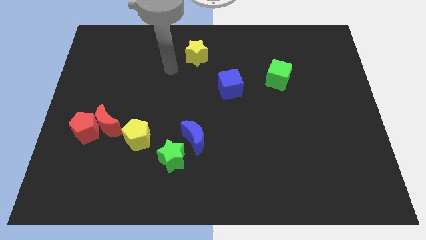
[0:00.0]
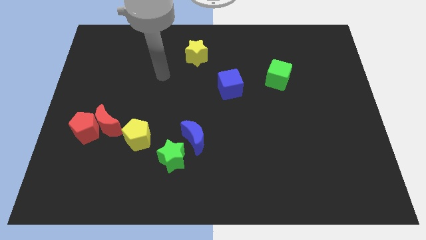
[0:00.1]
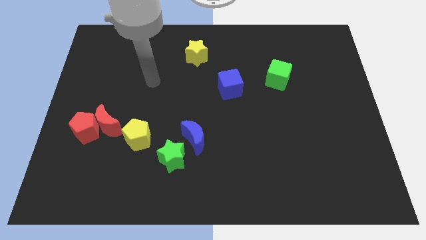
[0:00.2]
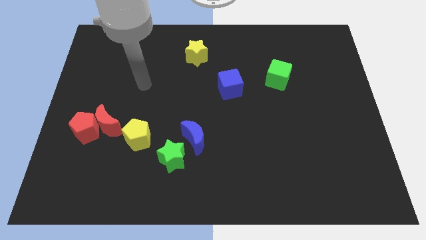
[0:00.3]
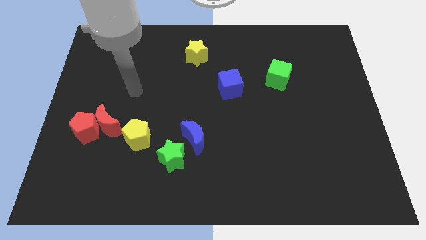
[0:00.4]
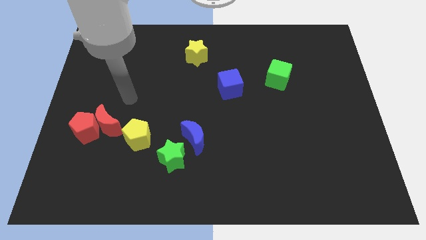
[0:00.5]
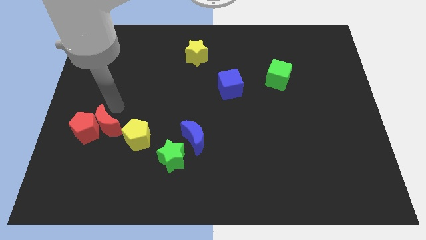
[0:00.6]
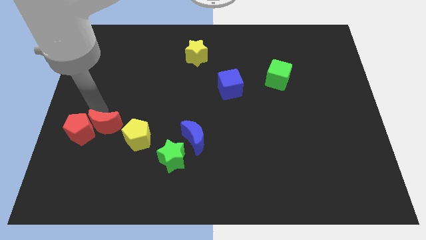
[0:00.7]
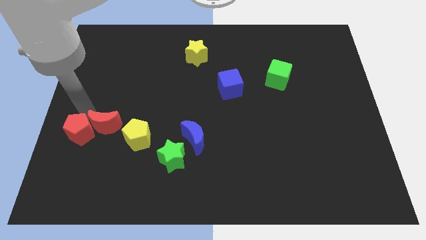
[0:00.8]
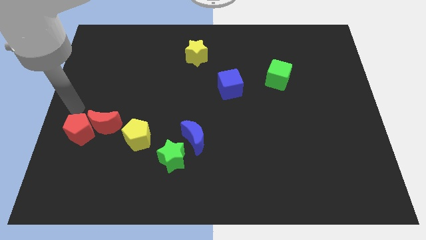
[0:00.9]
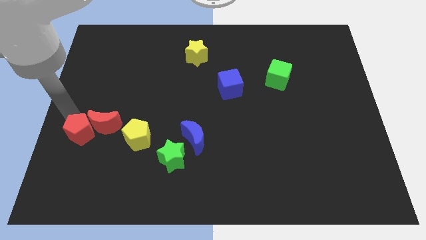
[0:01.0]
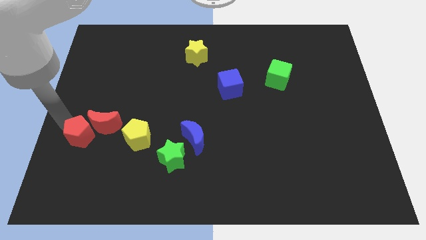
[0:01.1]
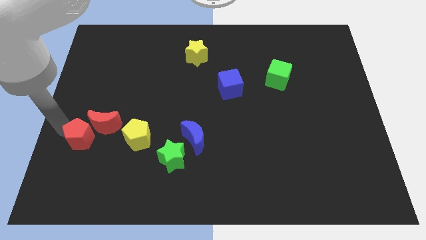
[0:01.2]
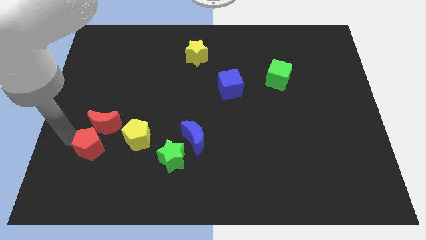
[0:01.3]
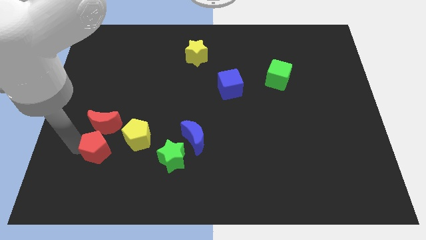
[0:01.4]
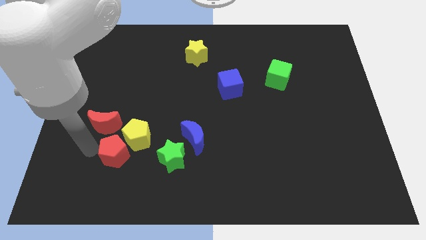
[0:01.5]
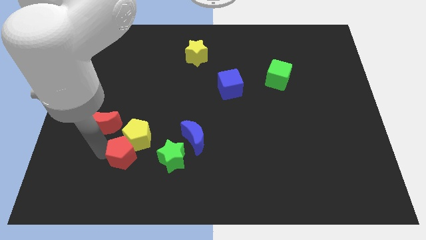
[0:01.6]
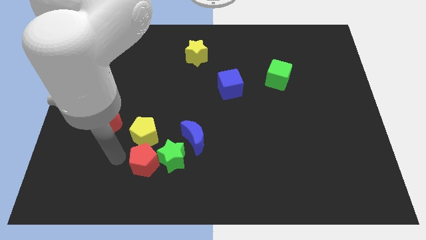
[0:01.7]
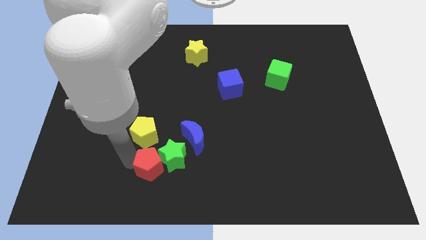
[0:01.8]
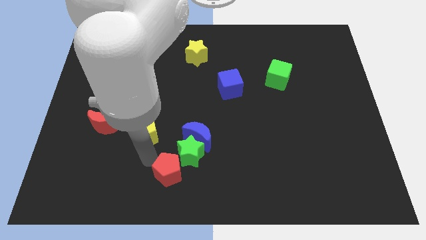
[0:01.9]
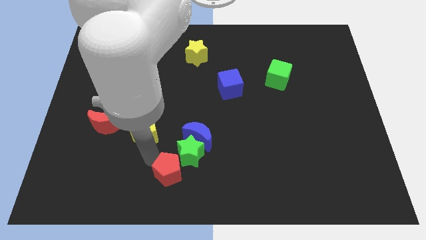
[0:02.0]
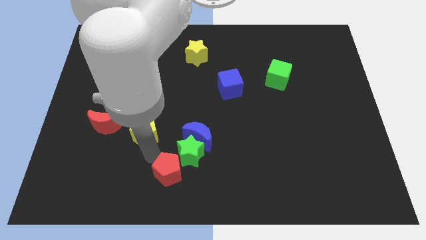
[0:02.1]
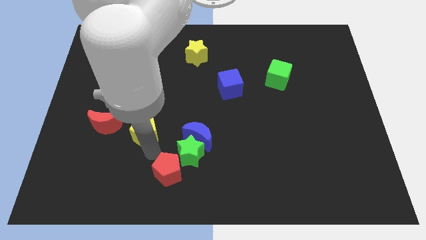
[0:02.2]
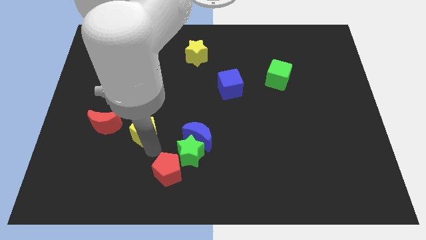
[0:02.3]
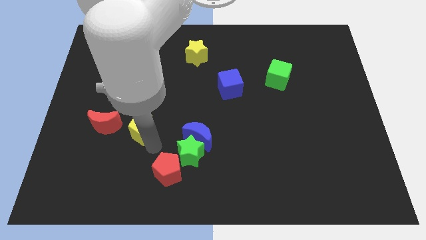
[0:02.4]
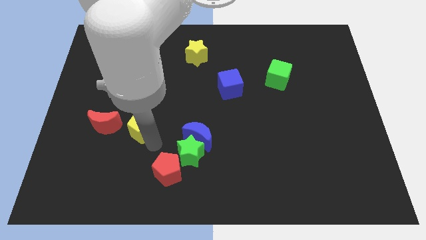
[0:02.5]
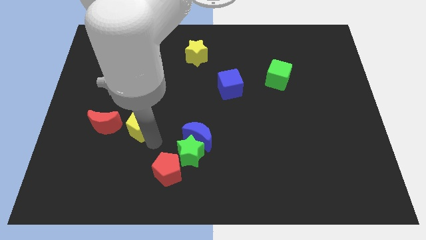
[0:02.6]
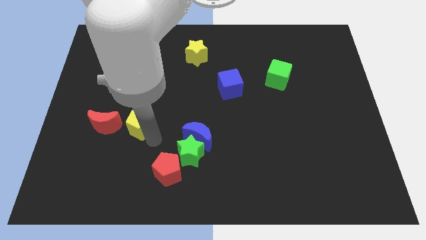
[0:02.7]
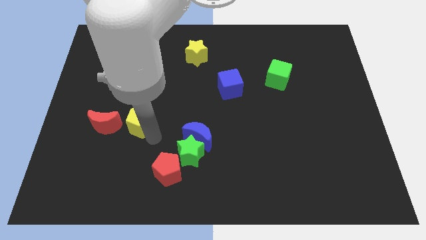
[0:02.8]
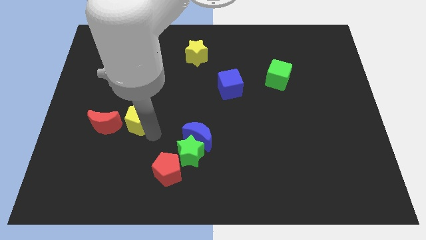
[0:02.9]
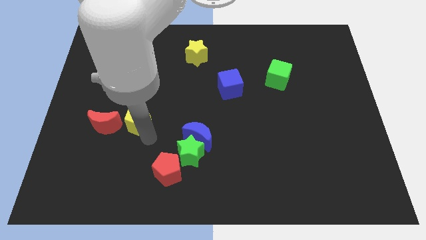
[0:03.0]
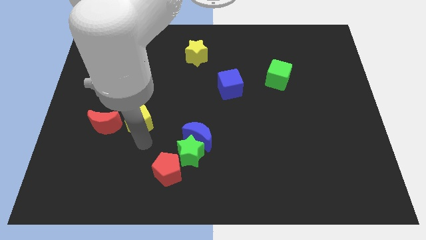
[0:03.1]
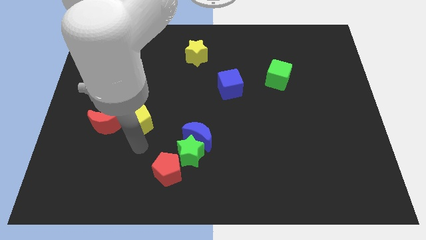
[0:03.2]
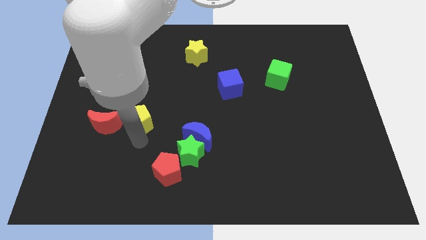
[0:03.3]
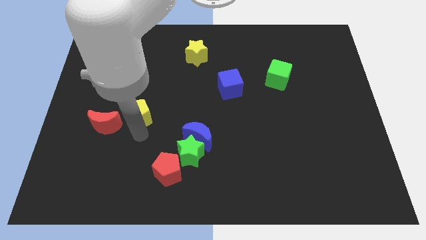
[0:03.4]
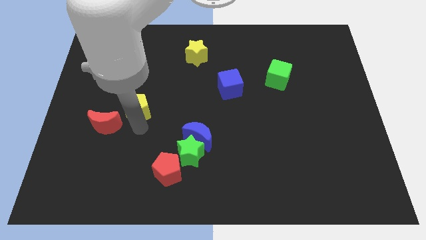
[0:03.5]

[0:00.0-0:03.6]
slide the yellow pentagon up a bit

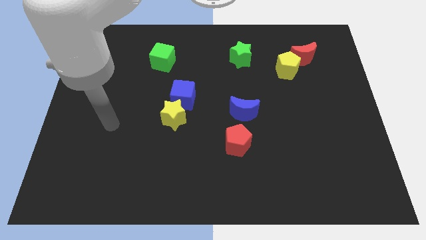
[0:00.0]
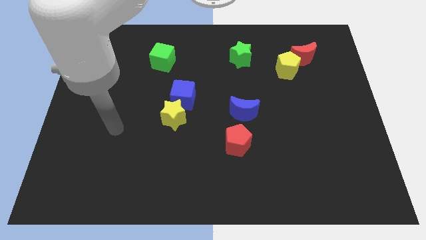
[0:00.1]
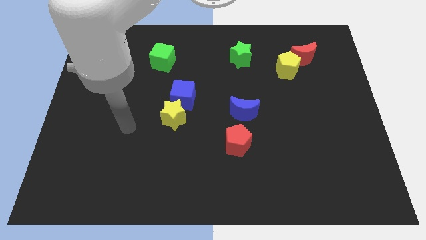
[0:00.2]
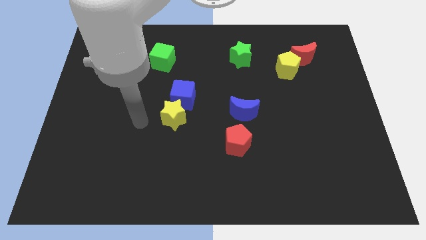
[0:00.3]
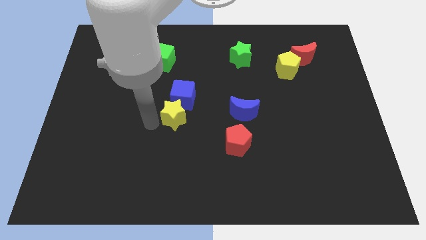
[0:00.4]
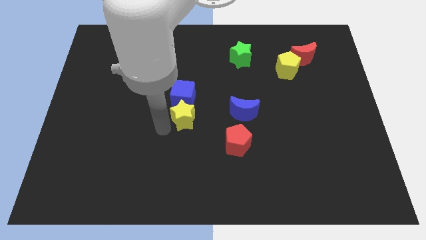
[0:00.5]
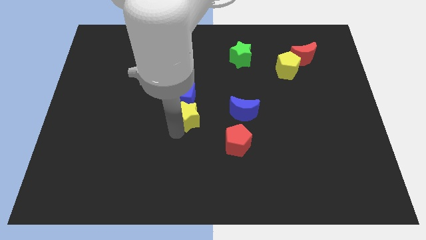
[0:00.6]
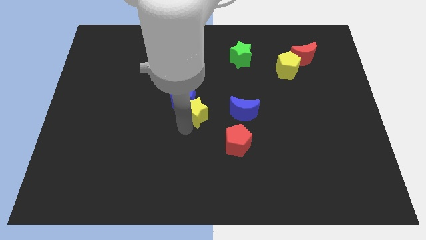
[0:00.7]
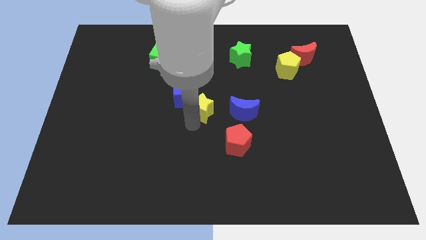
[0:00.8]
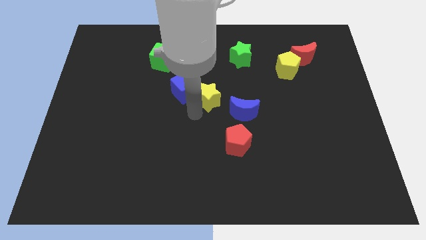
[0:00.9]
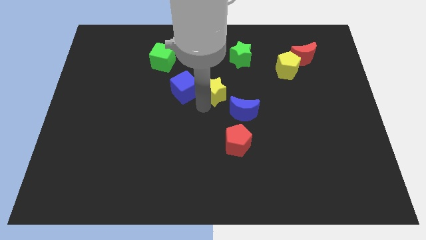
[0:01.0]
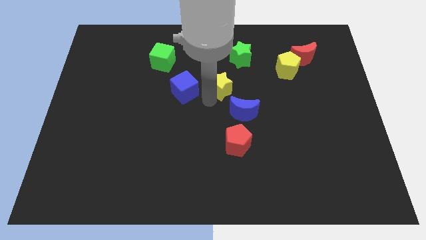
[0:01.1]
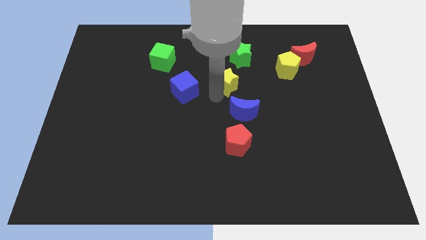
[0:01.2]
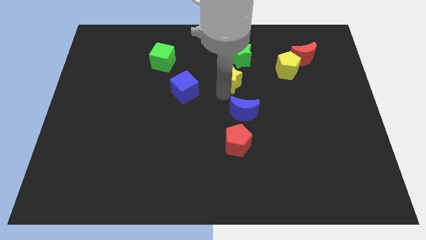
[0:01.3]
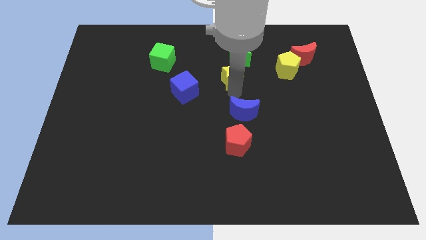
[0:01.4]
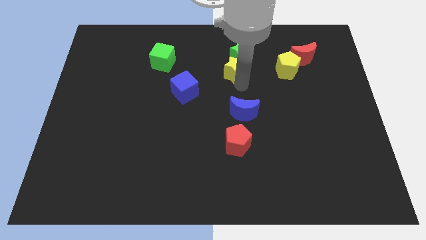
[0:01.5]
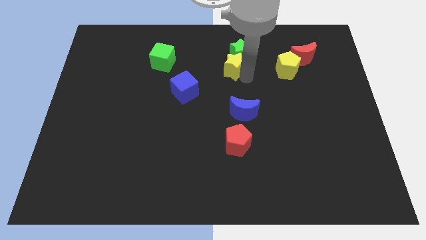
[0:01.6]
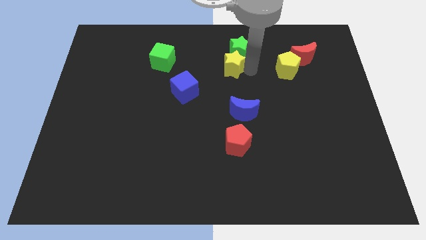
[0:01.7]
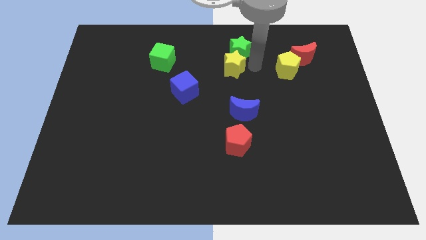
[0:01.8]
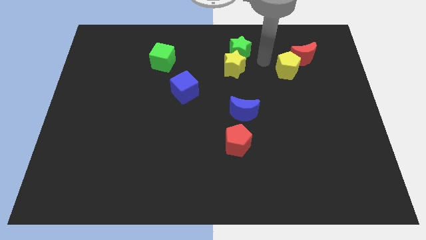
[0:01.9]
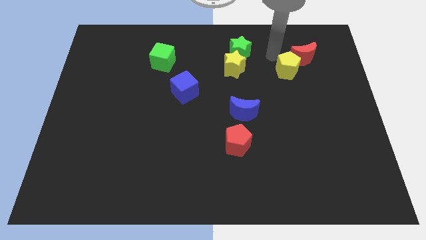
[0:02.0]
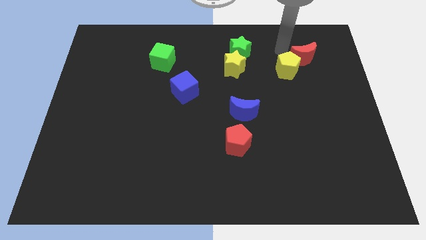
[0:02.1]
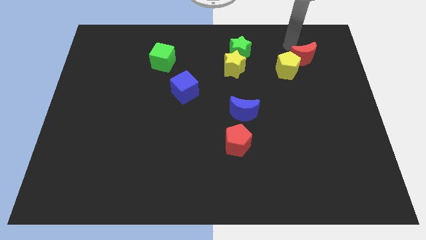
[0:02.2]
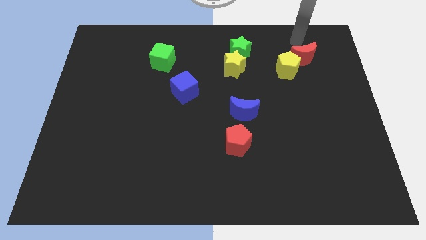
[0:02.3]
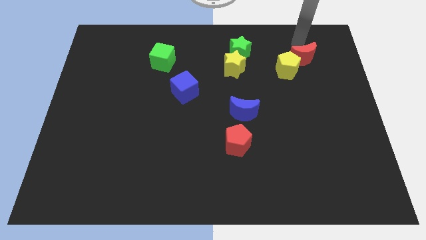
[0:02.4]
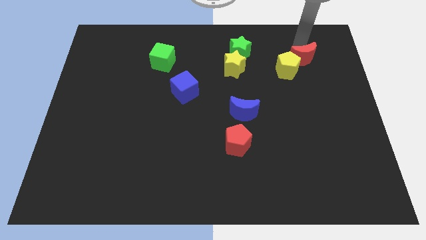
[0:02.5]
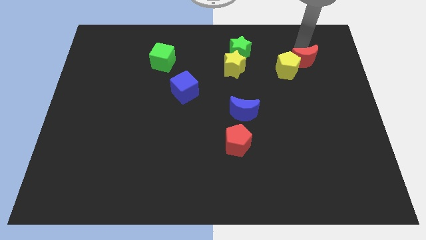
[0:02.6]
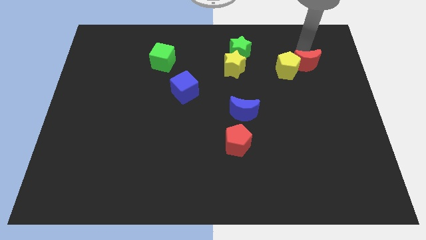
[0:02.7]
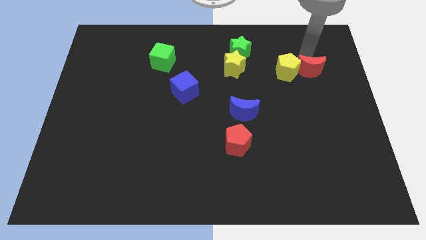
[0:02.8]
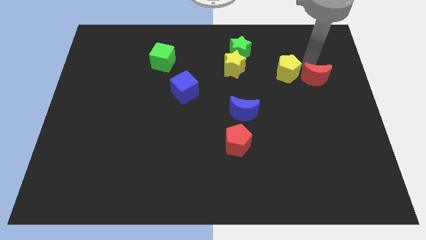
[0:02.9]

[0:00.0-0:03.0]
slide the red moon slightly down

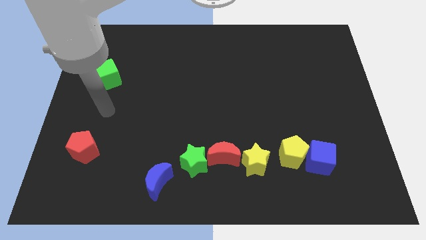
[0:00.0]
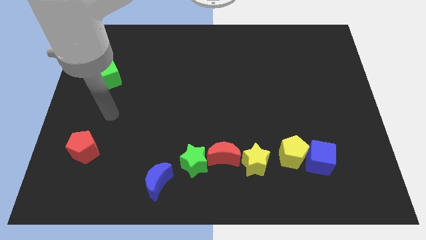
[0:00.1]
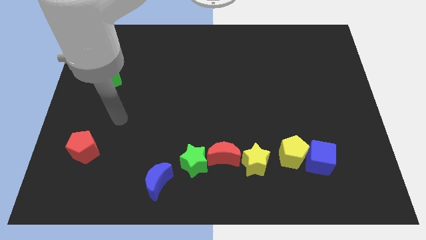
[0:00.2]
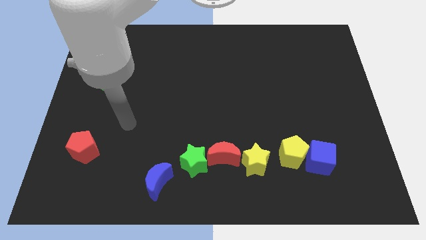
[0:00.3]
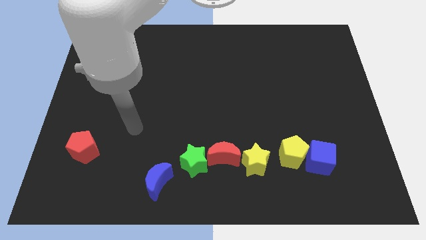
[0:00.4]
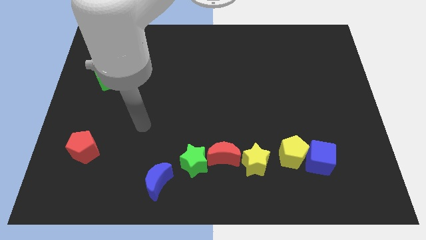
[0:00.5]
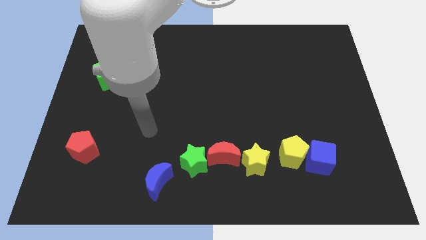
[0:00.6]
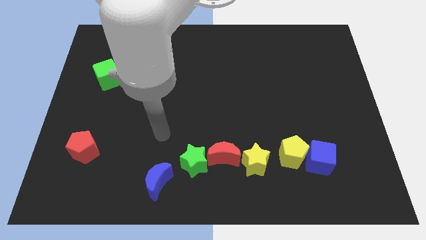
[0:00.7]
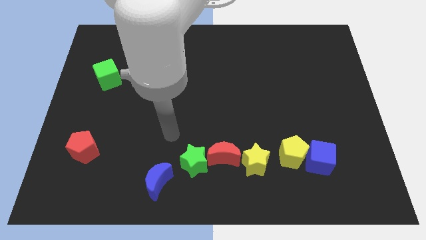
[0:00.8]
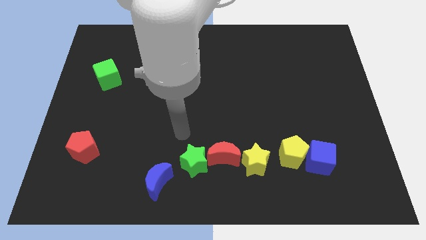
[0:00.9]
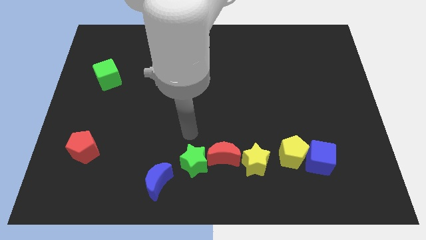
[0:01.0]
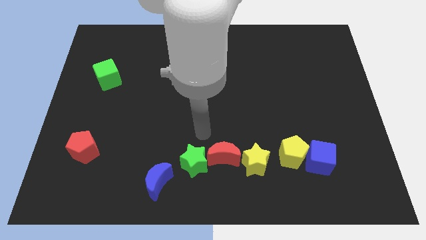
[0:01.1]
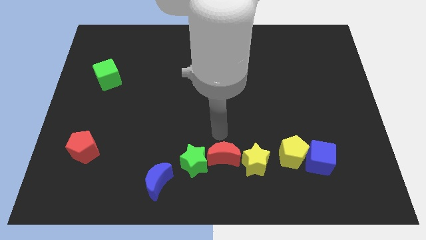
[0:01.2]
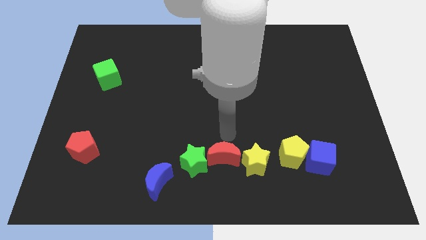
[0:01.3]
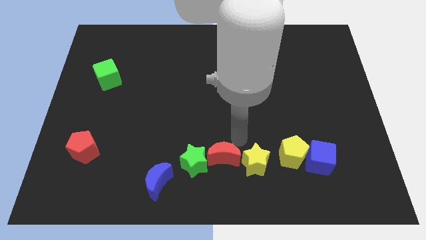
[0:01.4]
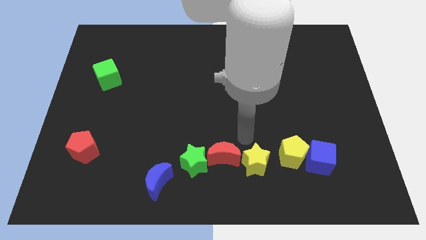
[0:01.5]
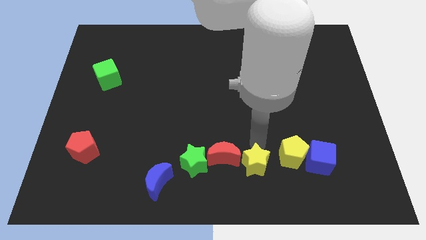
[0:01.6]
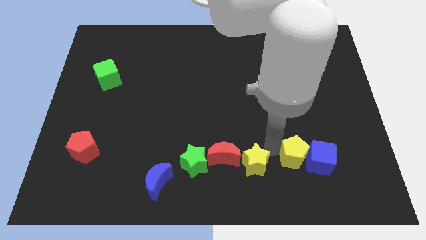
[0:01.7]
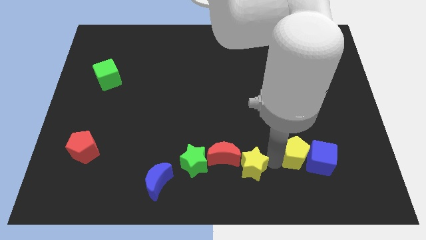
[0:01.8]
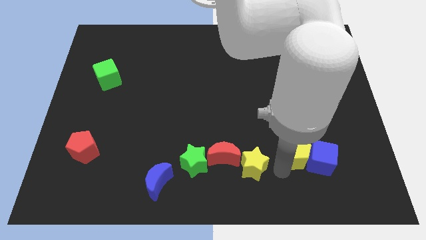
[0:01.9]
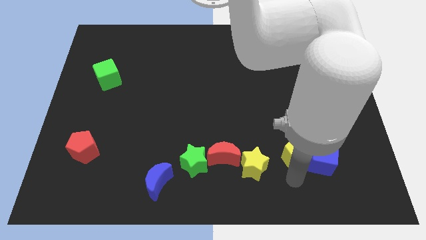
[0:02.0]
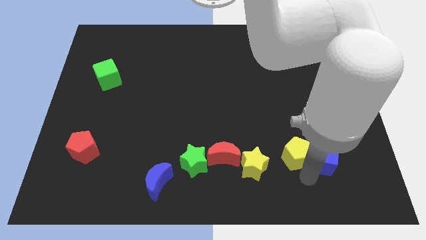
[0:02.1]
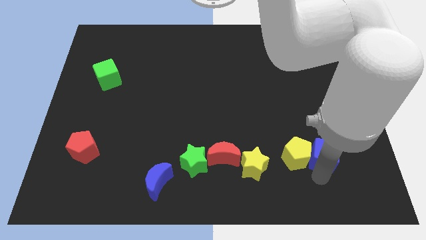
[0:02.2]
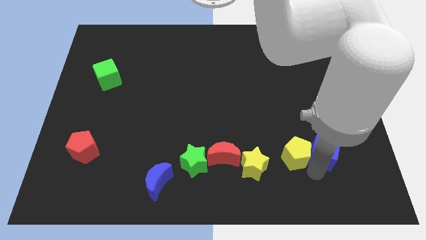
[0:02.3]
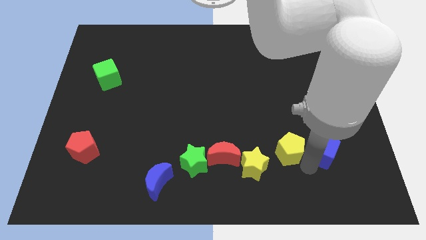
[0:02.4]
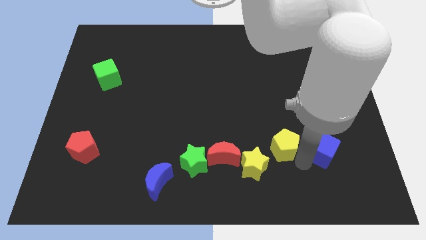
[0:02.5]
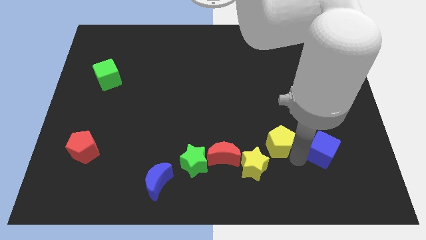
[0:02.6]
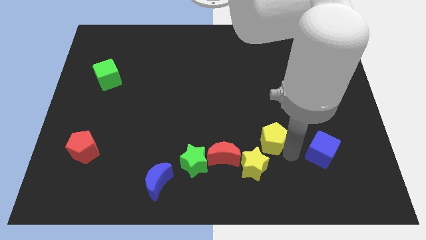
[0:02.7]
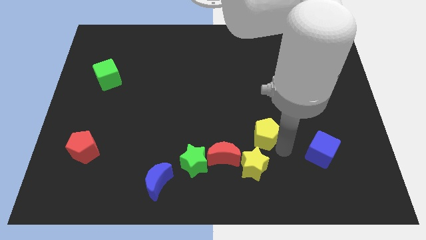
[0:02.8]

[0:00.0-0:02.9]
slightly slide the yellow pentagon upwards and then to the left
